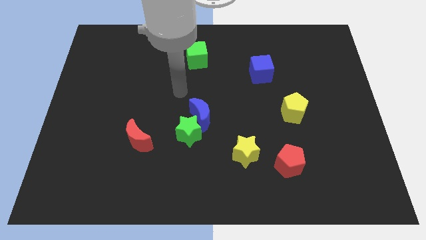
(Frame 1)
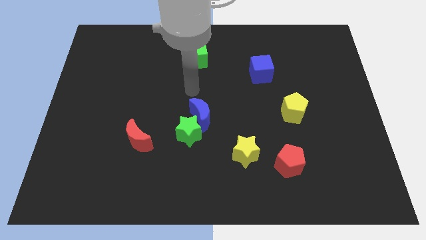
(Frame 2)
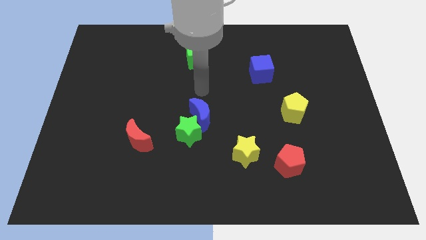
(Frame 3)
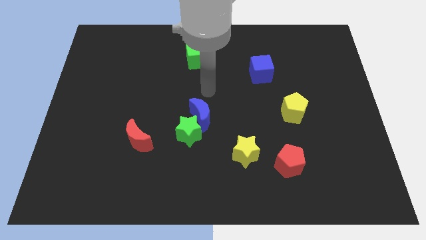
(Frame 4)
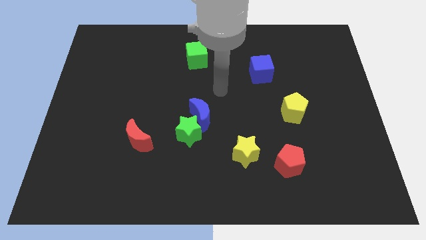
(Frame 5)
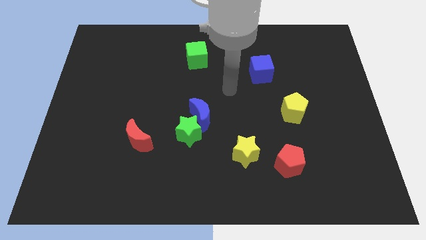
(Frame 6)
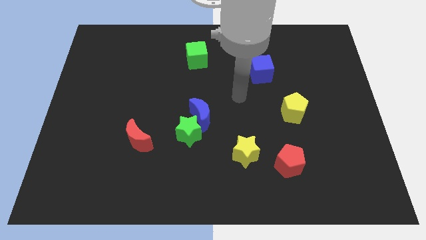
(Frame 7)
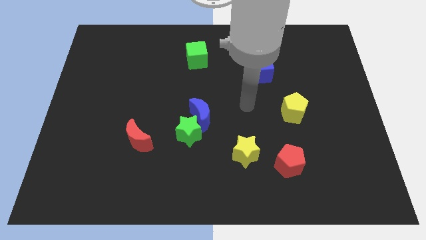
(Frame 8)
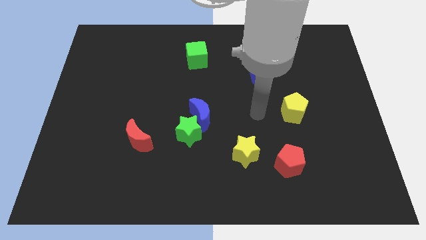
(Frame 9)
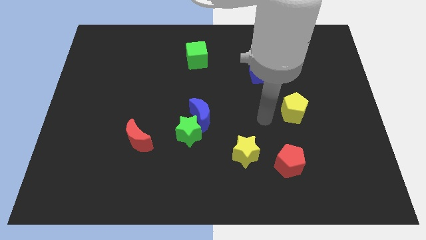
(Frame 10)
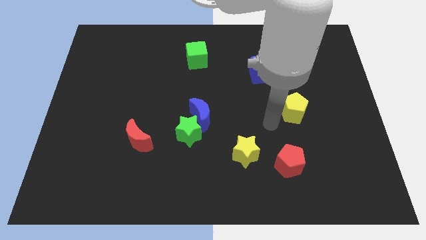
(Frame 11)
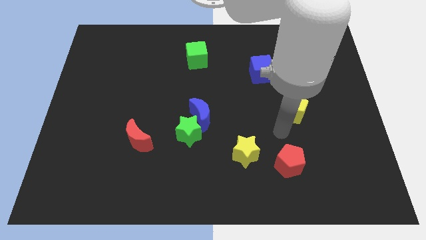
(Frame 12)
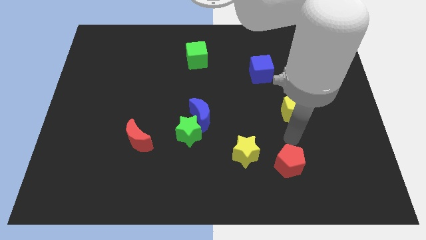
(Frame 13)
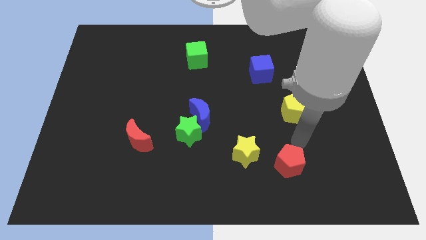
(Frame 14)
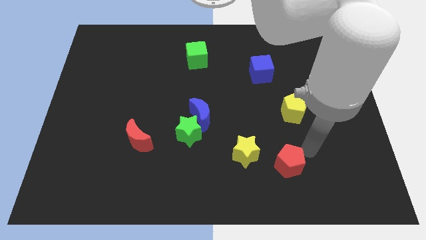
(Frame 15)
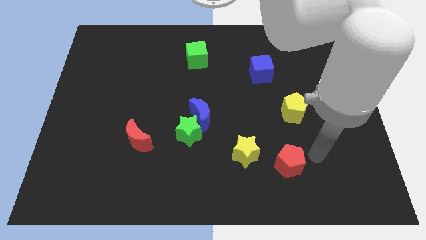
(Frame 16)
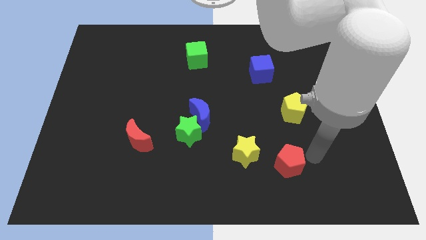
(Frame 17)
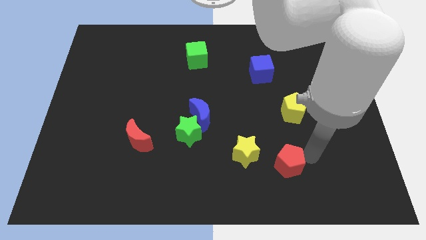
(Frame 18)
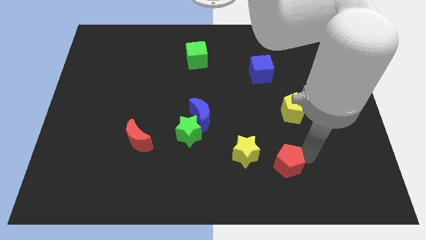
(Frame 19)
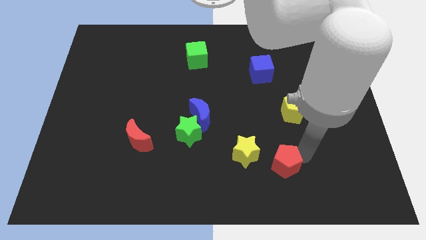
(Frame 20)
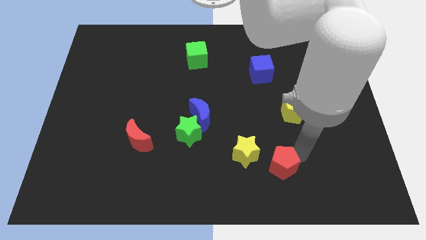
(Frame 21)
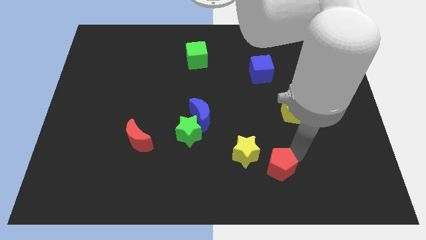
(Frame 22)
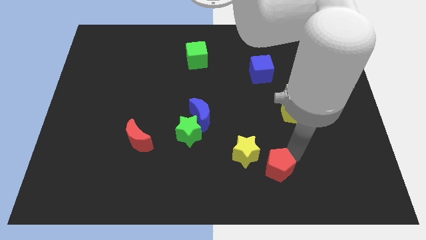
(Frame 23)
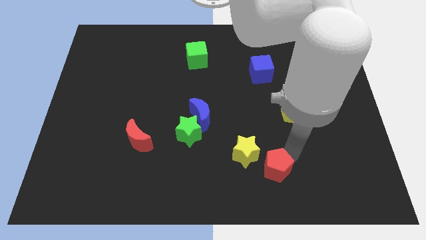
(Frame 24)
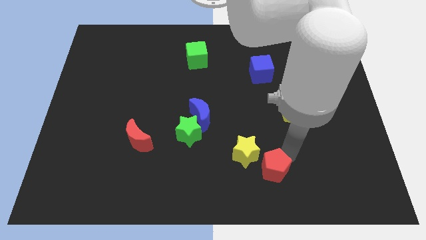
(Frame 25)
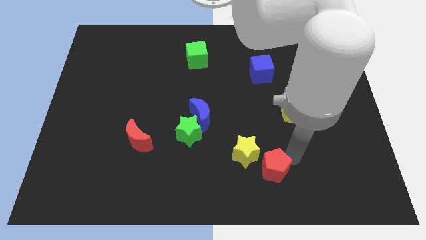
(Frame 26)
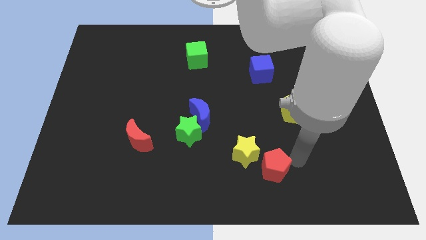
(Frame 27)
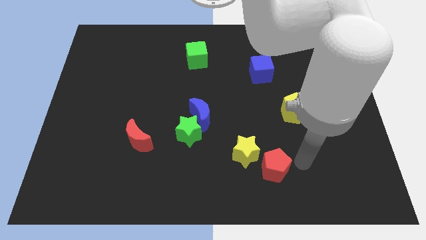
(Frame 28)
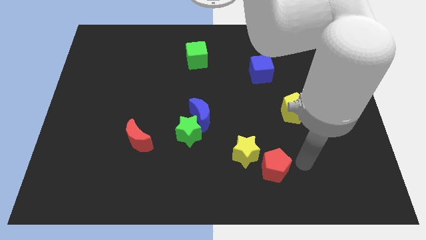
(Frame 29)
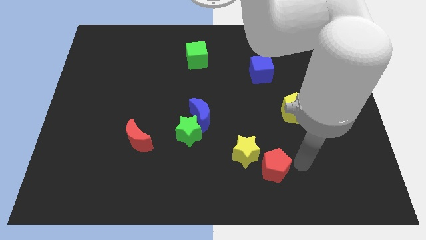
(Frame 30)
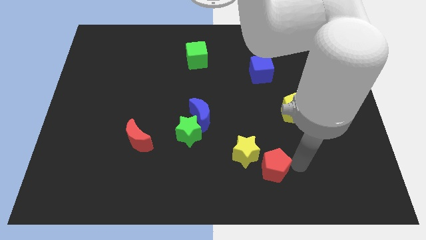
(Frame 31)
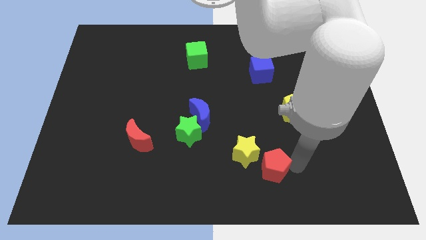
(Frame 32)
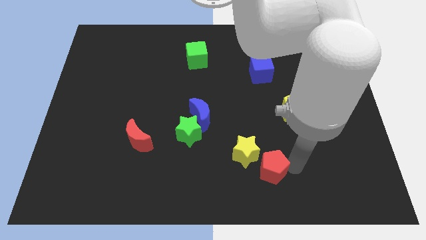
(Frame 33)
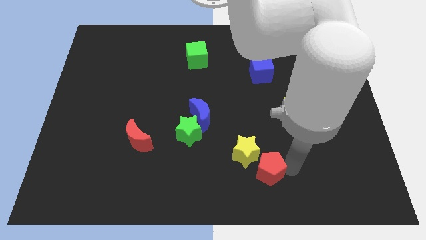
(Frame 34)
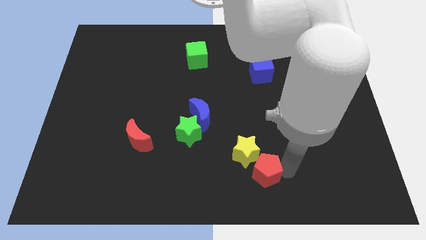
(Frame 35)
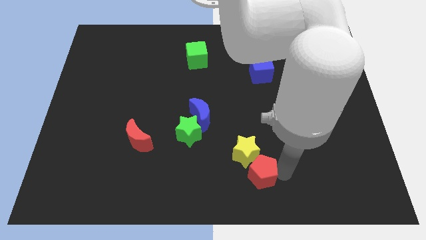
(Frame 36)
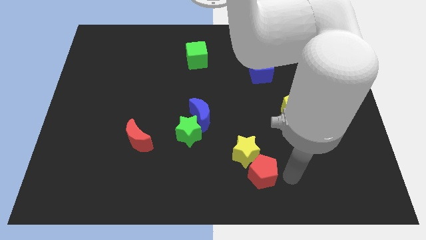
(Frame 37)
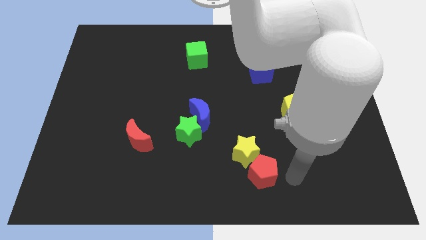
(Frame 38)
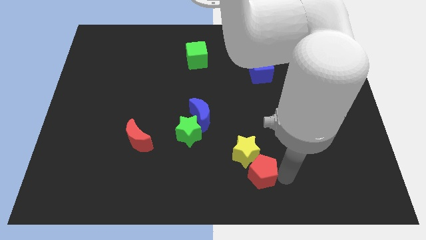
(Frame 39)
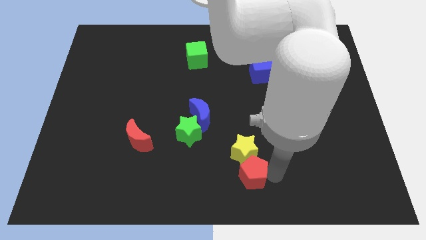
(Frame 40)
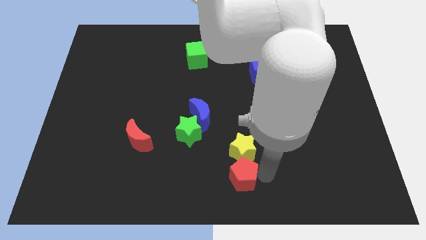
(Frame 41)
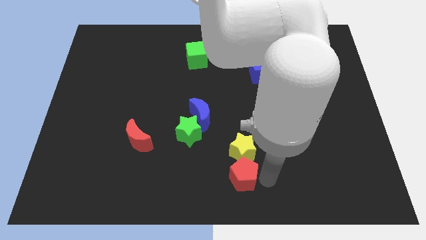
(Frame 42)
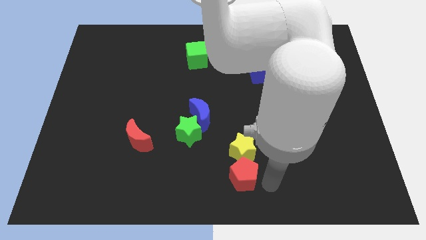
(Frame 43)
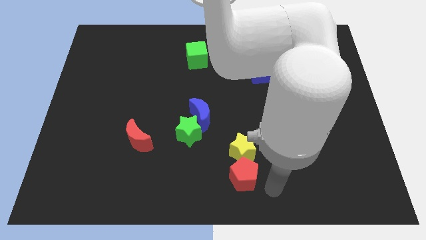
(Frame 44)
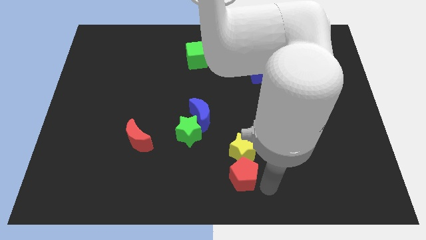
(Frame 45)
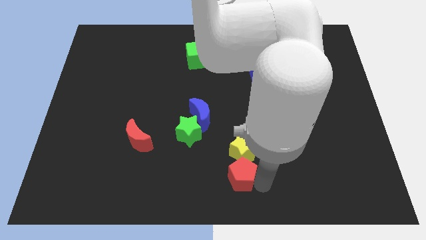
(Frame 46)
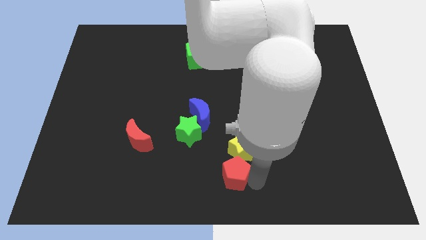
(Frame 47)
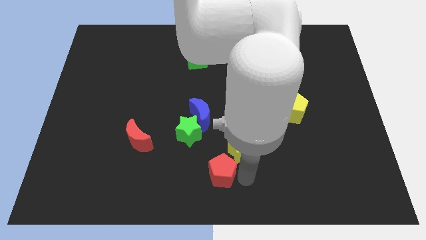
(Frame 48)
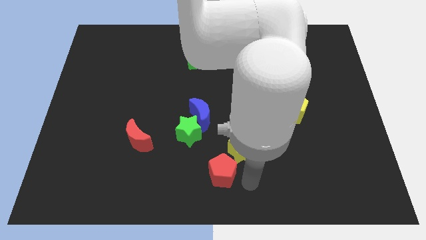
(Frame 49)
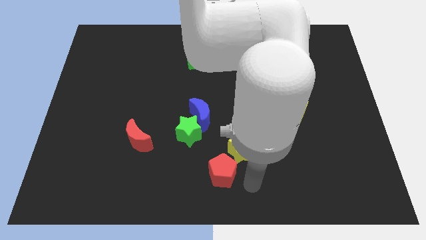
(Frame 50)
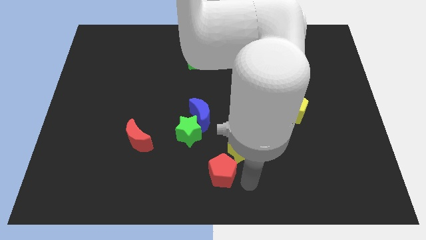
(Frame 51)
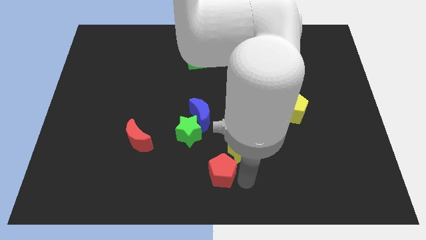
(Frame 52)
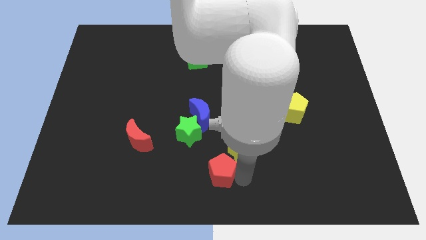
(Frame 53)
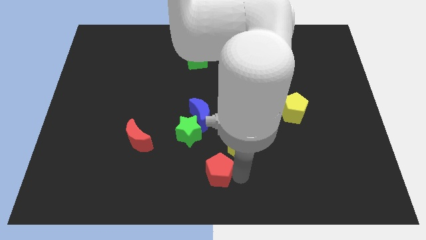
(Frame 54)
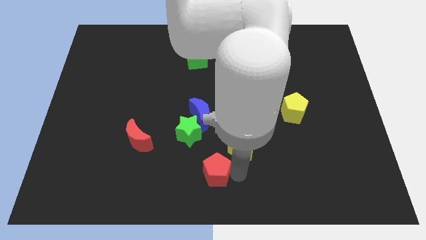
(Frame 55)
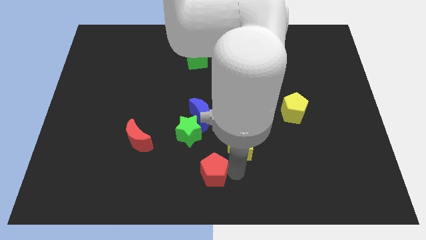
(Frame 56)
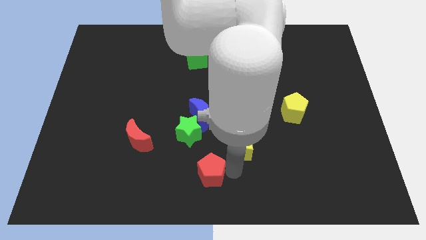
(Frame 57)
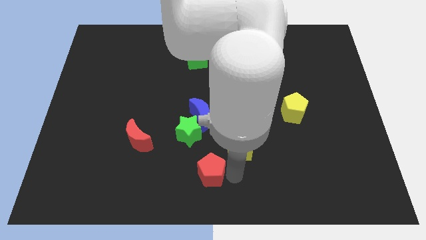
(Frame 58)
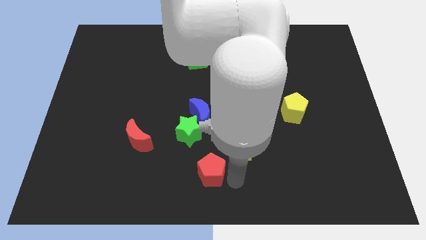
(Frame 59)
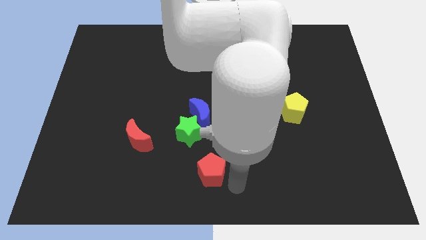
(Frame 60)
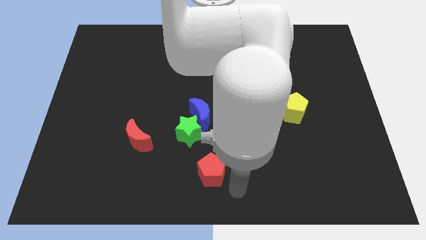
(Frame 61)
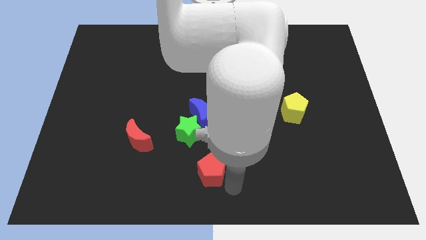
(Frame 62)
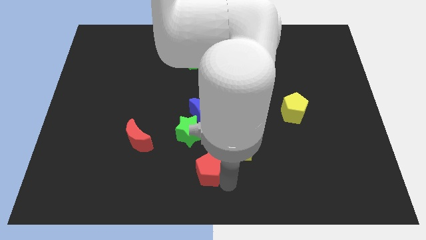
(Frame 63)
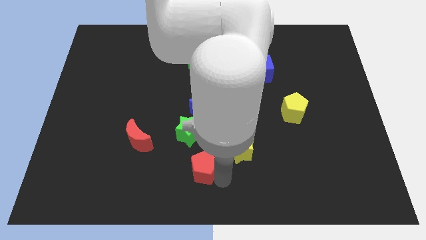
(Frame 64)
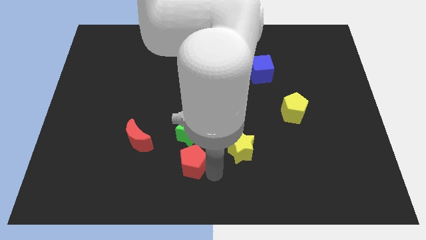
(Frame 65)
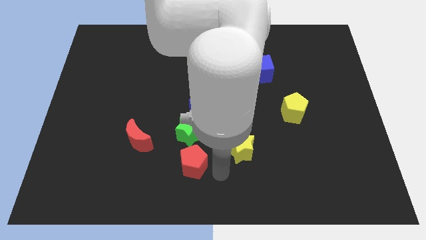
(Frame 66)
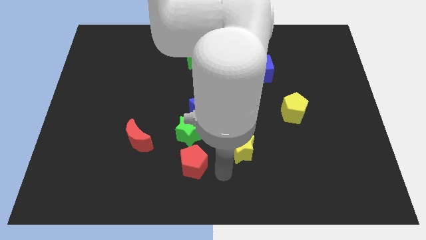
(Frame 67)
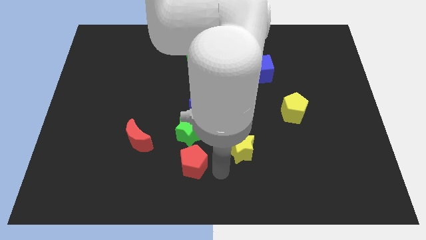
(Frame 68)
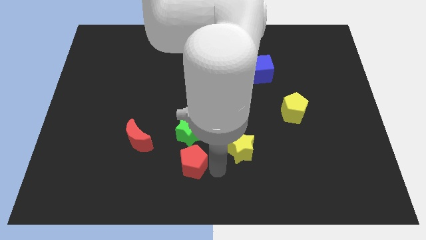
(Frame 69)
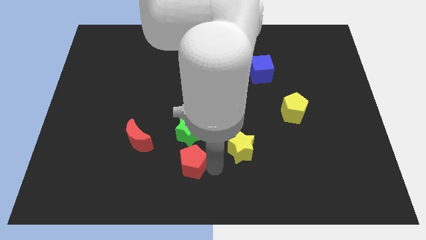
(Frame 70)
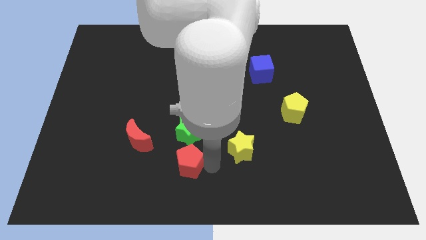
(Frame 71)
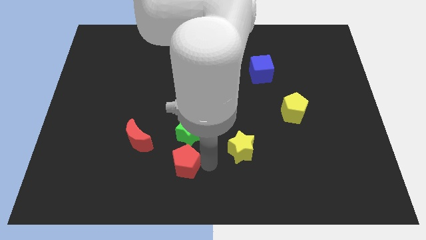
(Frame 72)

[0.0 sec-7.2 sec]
push the red pentagon to the bottom left of the green star
